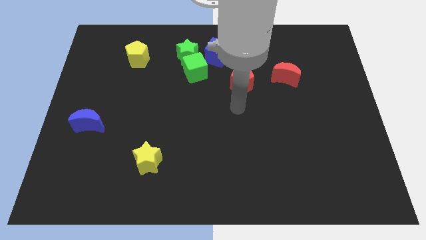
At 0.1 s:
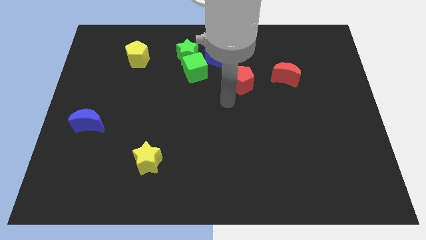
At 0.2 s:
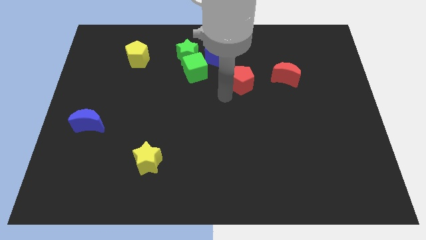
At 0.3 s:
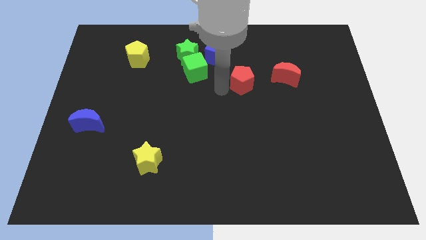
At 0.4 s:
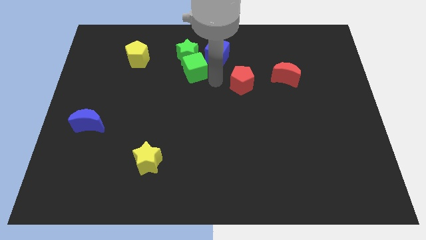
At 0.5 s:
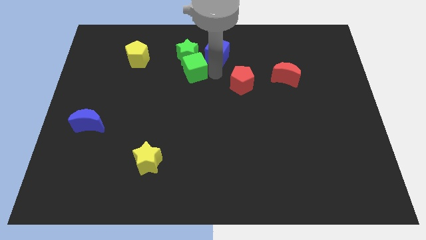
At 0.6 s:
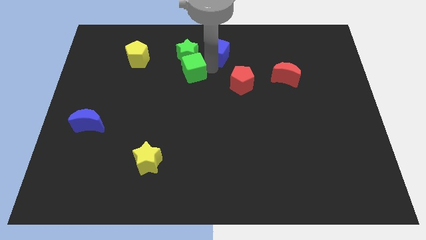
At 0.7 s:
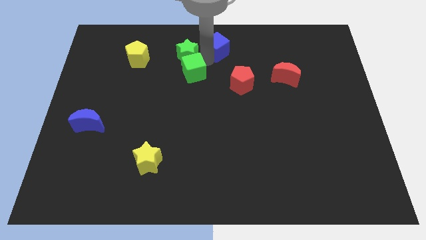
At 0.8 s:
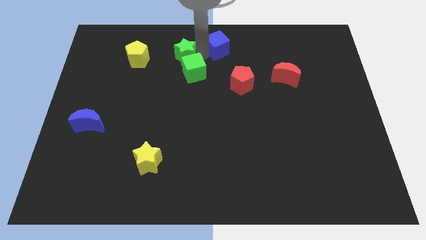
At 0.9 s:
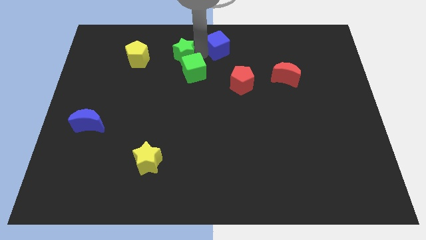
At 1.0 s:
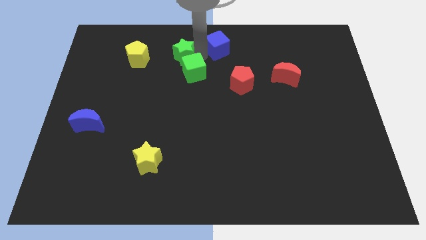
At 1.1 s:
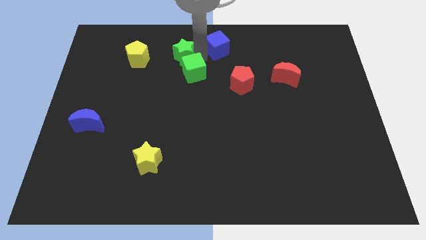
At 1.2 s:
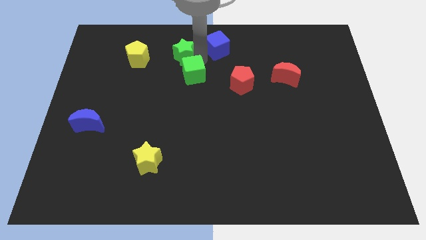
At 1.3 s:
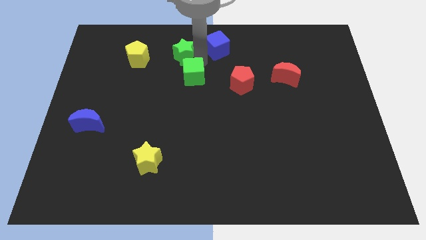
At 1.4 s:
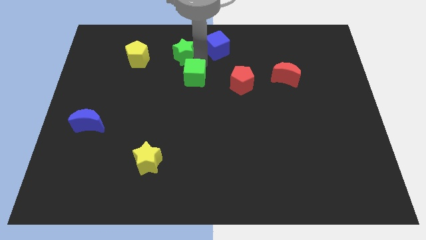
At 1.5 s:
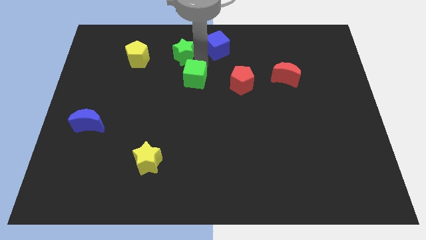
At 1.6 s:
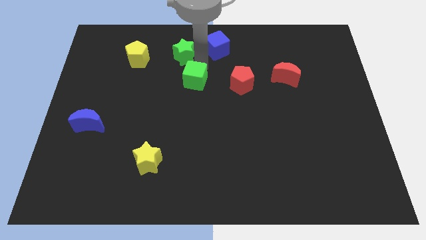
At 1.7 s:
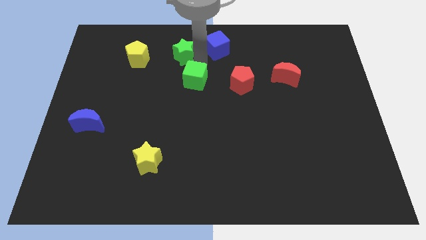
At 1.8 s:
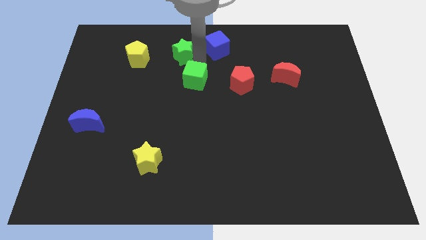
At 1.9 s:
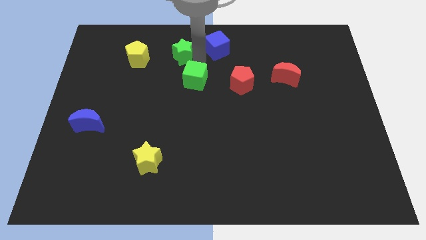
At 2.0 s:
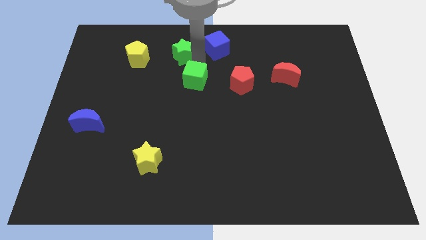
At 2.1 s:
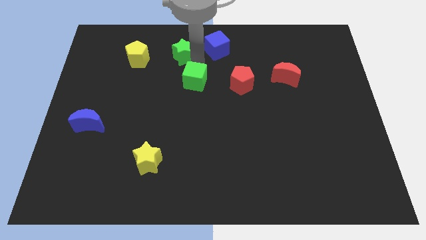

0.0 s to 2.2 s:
move the green cube away from the green star and blue cube

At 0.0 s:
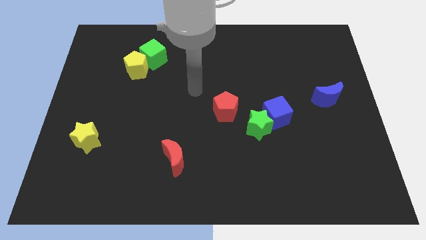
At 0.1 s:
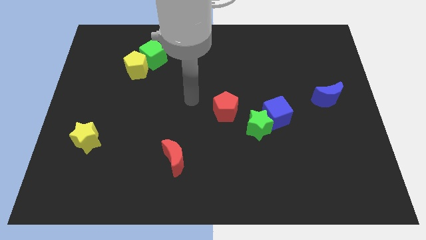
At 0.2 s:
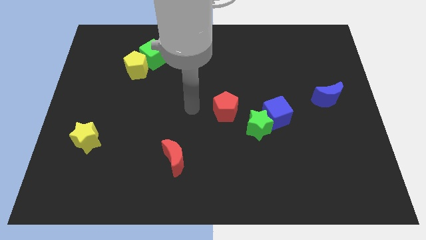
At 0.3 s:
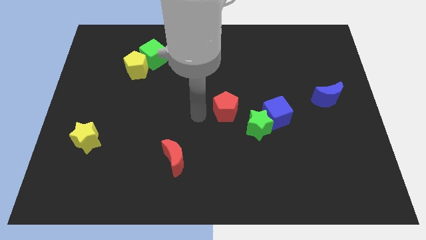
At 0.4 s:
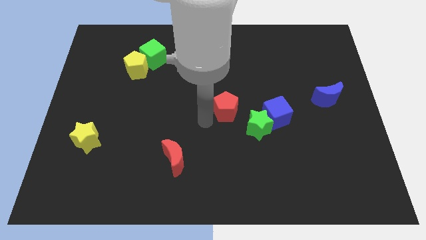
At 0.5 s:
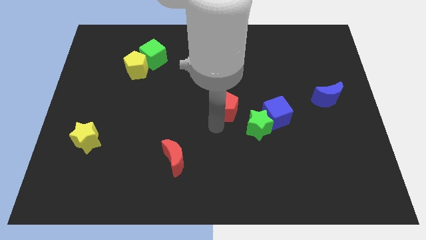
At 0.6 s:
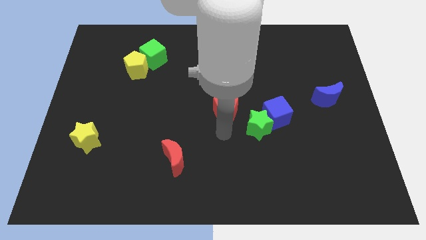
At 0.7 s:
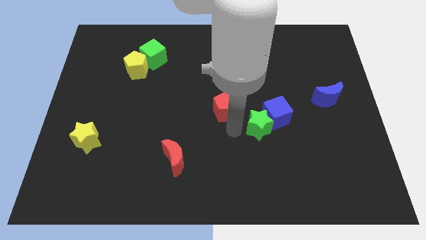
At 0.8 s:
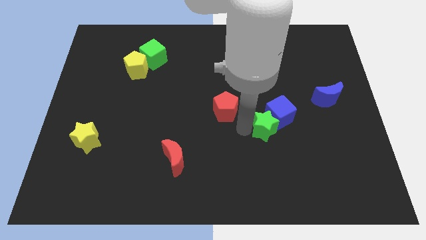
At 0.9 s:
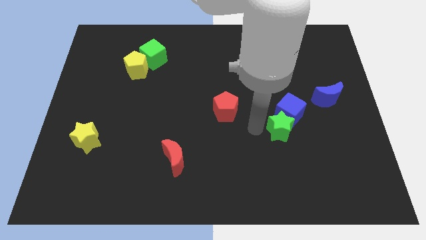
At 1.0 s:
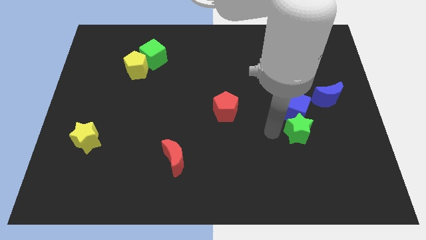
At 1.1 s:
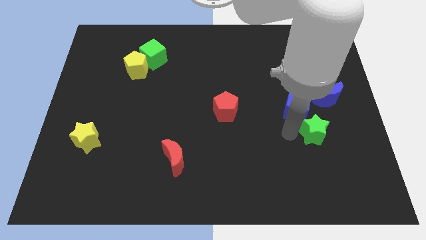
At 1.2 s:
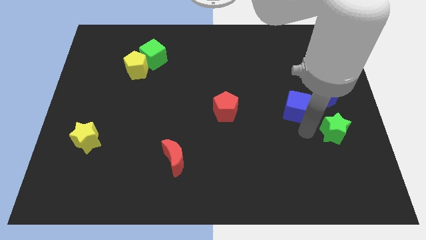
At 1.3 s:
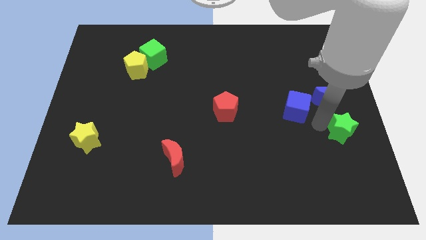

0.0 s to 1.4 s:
move the blue cube away from the green star

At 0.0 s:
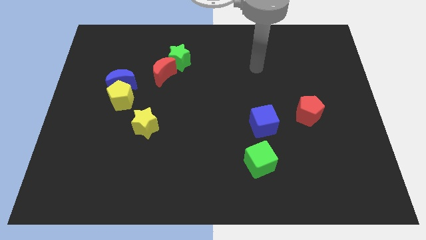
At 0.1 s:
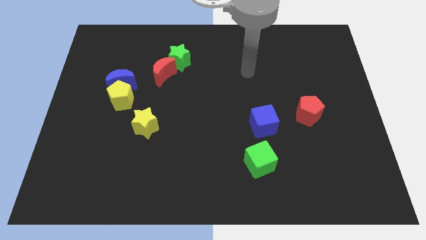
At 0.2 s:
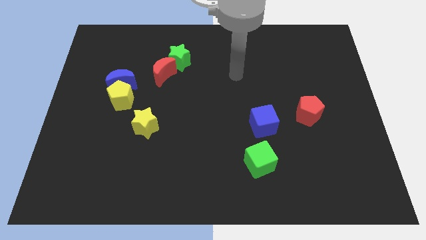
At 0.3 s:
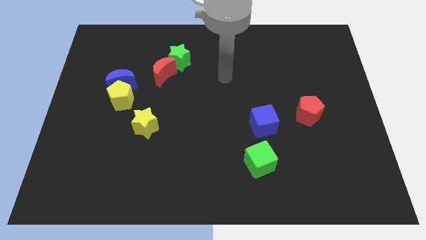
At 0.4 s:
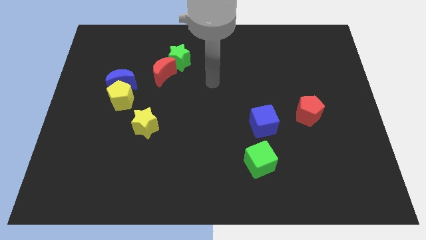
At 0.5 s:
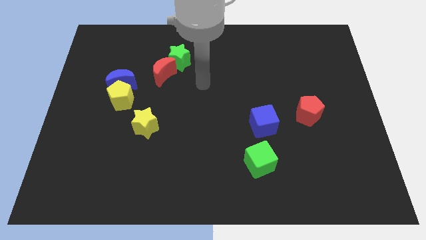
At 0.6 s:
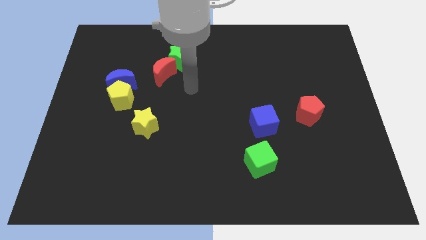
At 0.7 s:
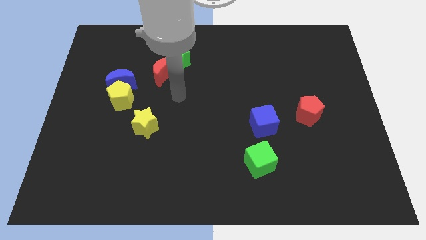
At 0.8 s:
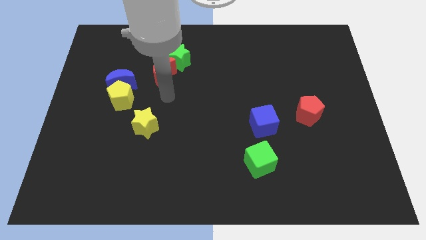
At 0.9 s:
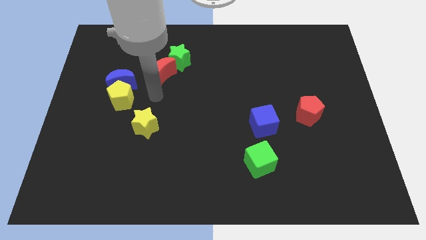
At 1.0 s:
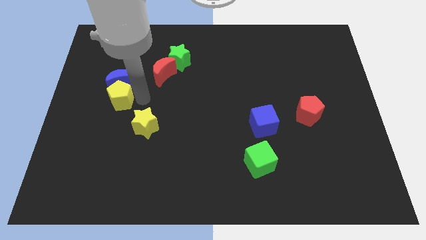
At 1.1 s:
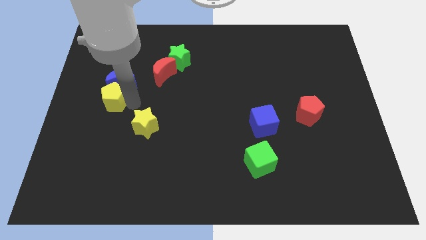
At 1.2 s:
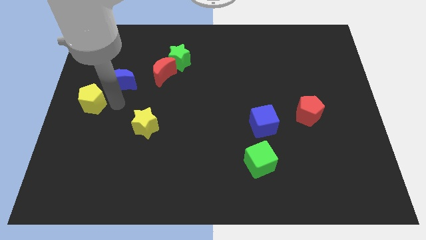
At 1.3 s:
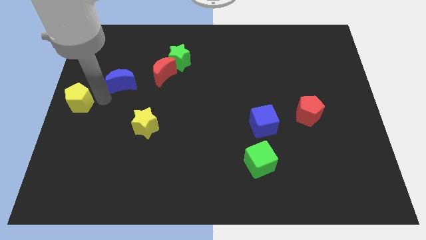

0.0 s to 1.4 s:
pull the blue moon apart from the yellow pentagon

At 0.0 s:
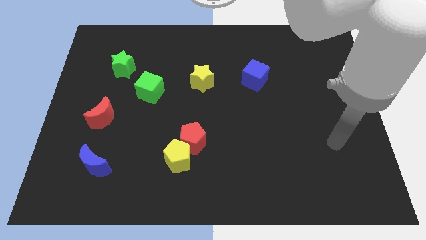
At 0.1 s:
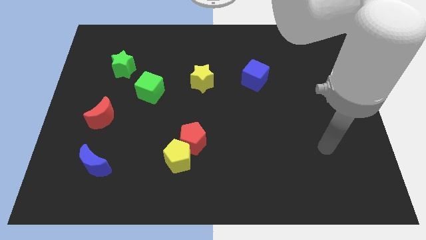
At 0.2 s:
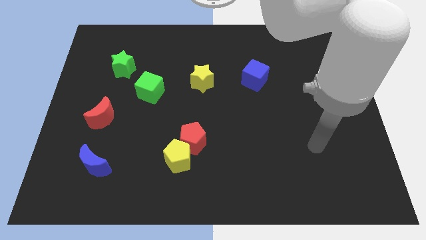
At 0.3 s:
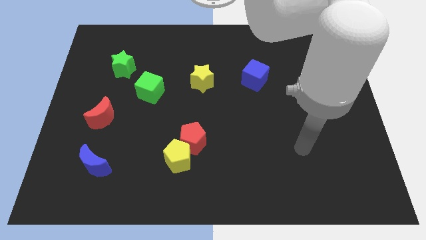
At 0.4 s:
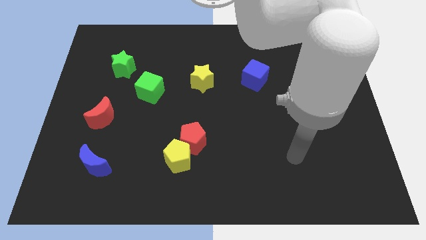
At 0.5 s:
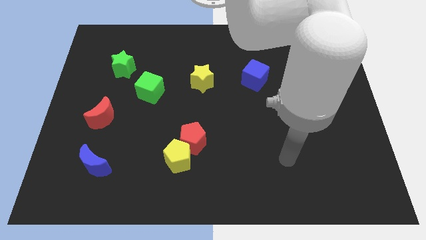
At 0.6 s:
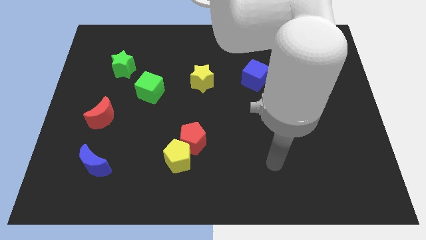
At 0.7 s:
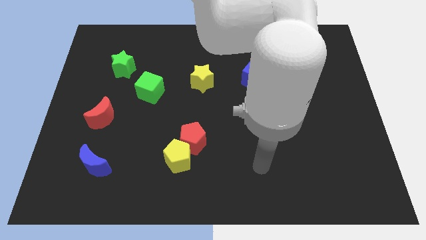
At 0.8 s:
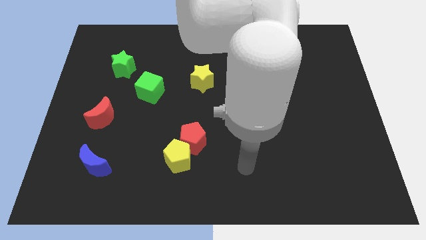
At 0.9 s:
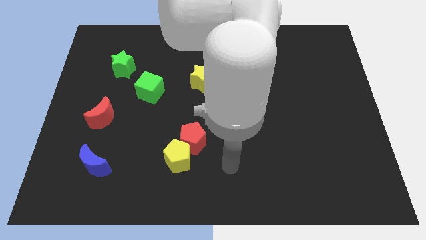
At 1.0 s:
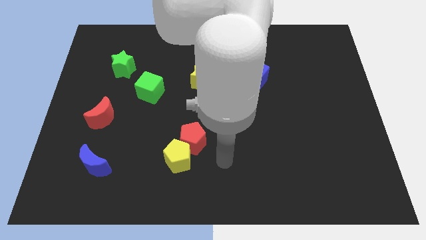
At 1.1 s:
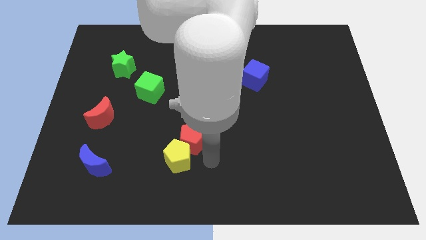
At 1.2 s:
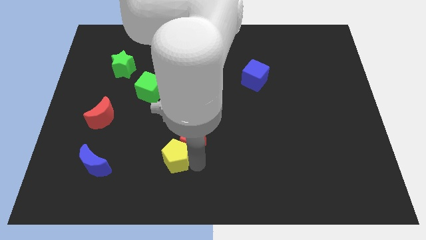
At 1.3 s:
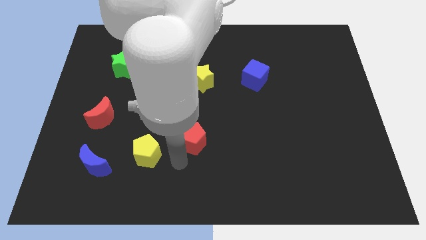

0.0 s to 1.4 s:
separate the red pentagon from the yellow pentagon

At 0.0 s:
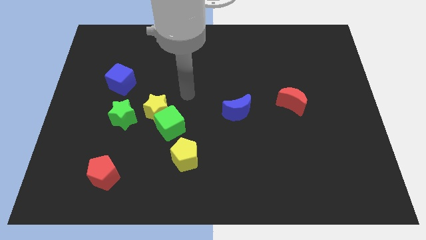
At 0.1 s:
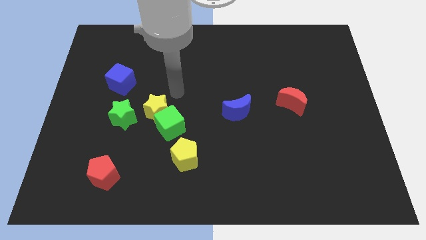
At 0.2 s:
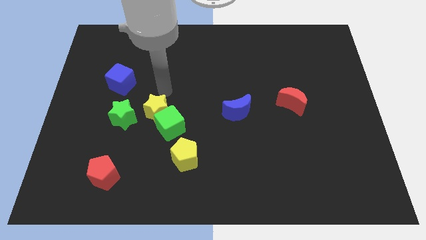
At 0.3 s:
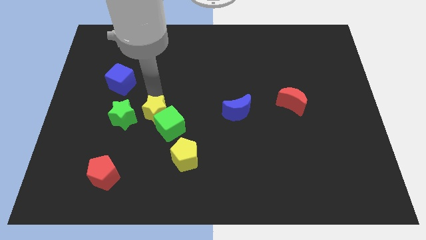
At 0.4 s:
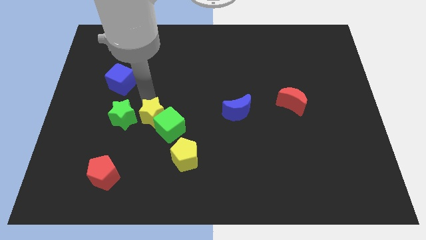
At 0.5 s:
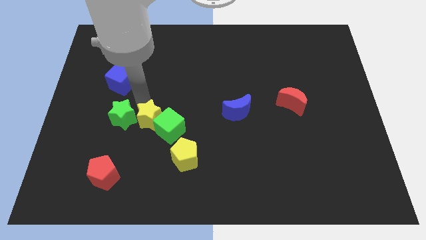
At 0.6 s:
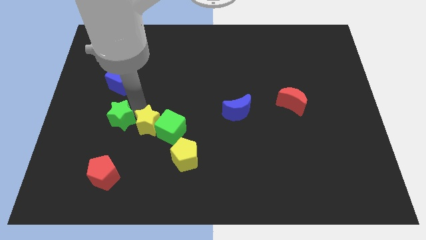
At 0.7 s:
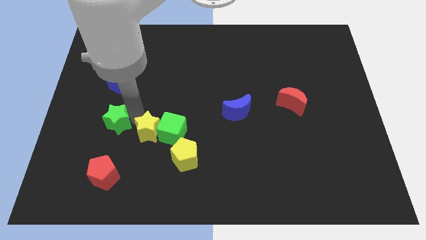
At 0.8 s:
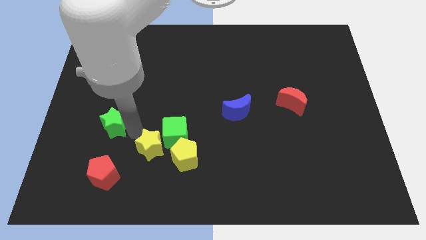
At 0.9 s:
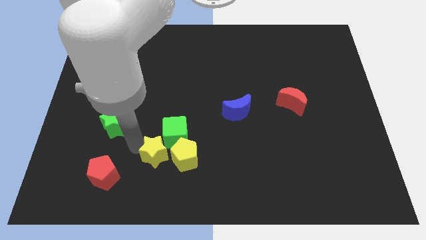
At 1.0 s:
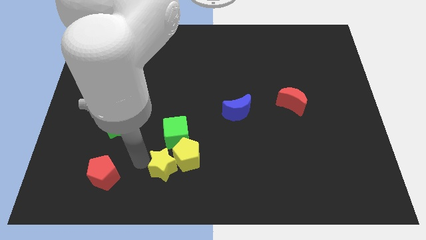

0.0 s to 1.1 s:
pull the yellow star apart from the green cube and green star

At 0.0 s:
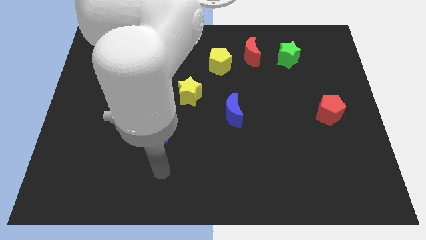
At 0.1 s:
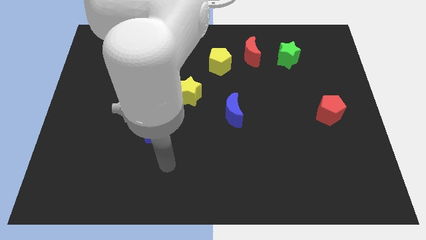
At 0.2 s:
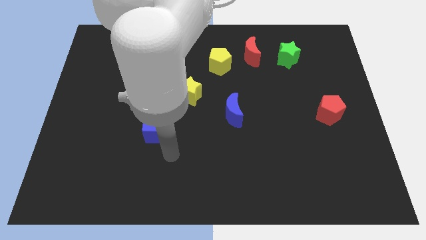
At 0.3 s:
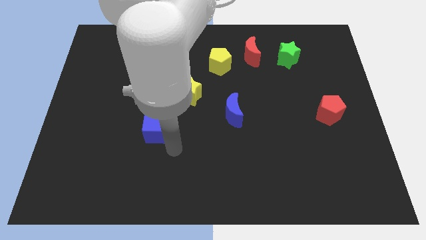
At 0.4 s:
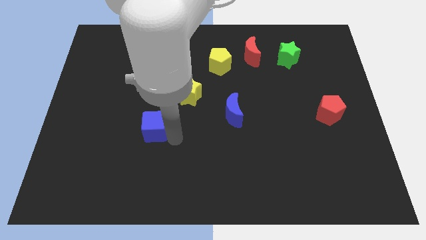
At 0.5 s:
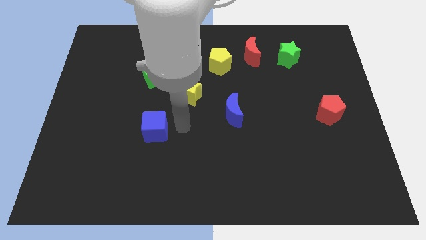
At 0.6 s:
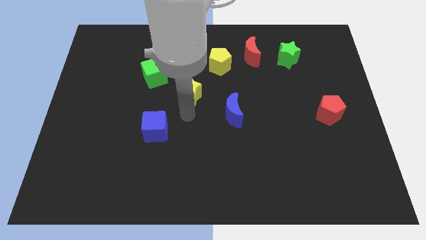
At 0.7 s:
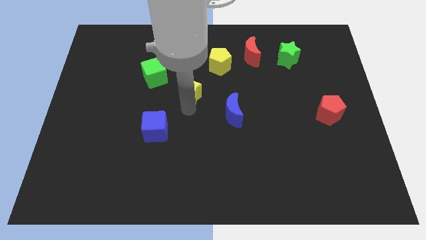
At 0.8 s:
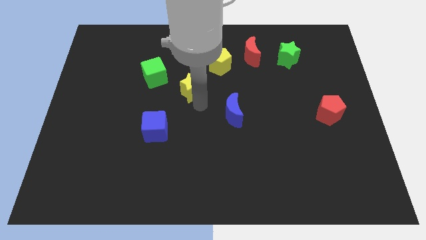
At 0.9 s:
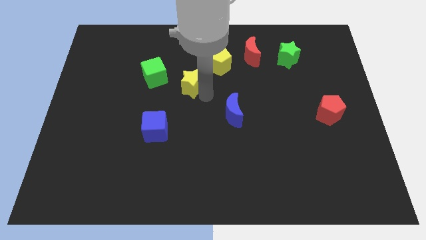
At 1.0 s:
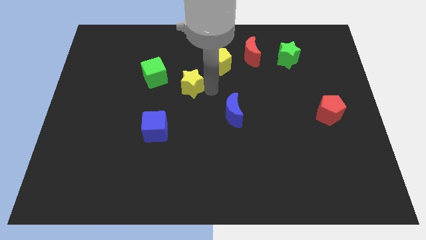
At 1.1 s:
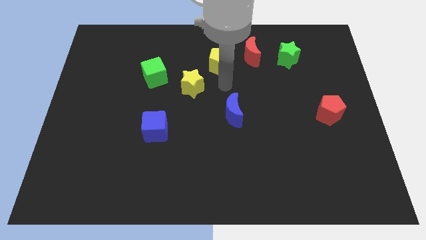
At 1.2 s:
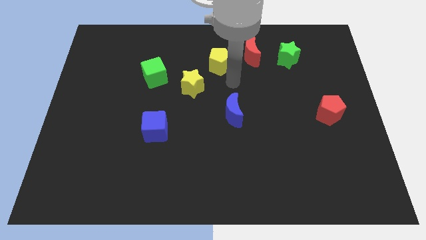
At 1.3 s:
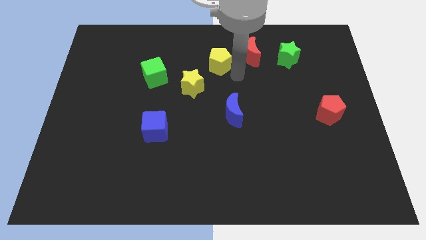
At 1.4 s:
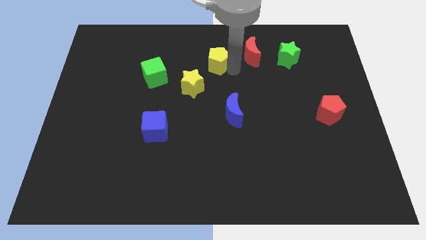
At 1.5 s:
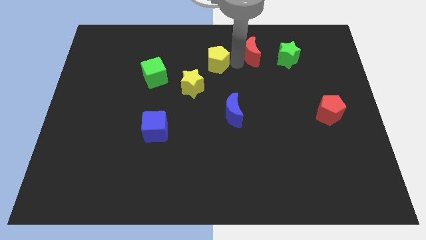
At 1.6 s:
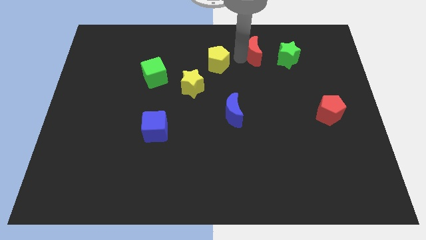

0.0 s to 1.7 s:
separate the yellow pentagon from the red moon

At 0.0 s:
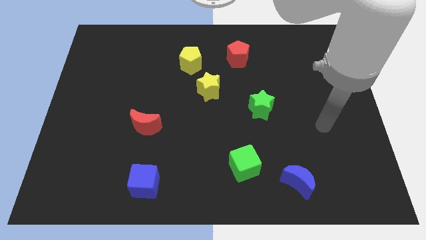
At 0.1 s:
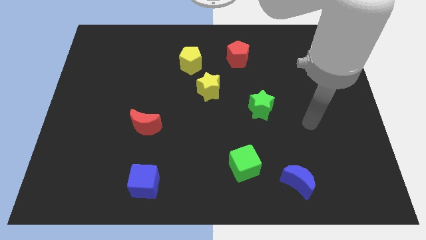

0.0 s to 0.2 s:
pull the yellow star apart from the yellow pentagon
